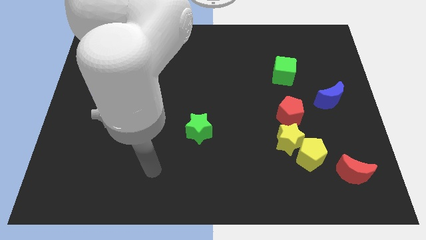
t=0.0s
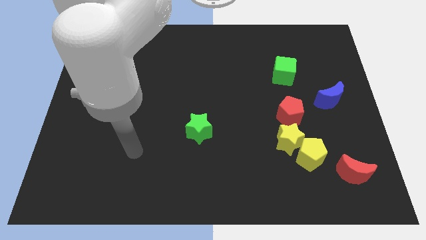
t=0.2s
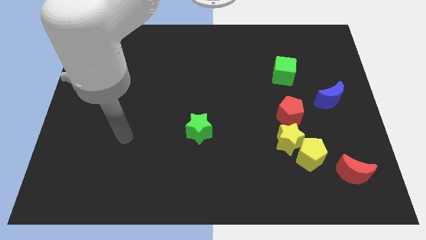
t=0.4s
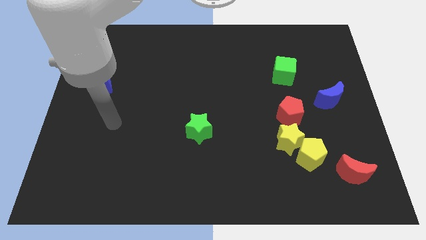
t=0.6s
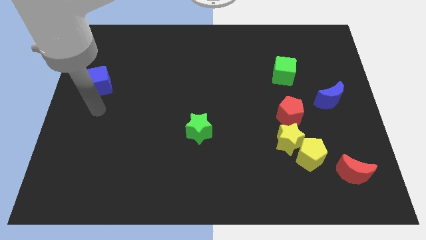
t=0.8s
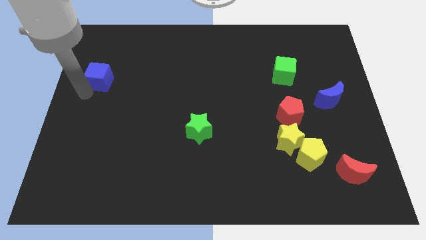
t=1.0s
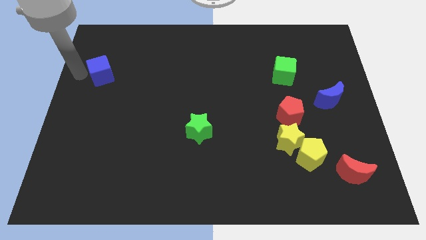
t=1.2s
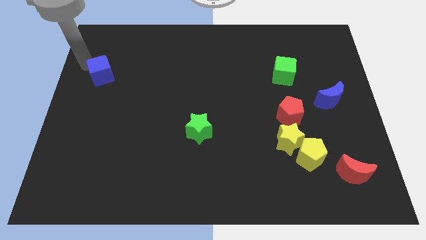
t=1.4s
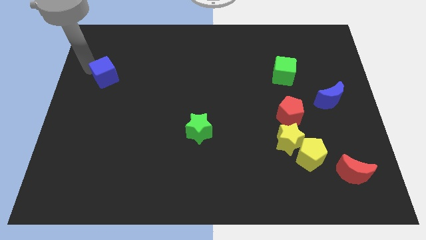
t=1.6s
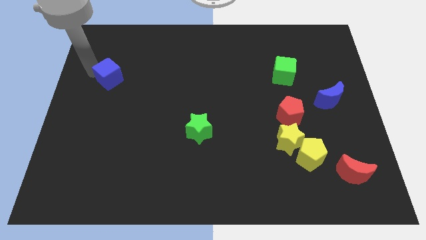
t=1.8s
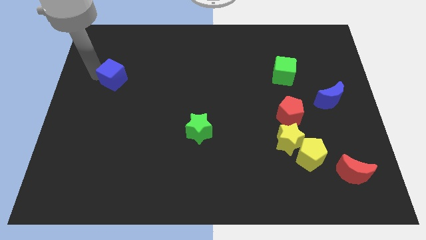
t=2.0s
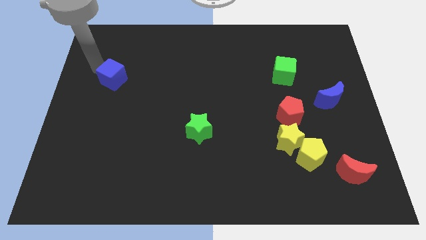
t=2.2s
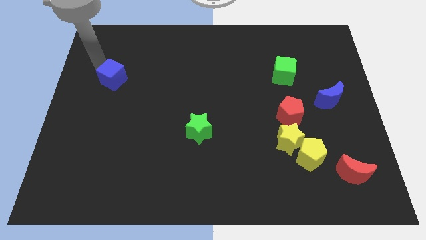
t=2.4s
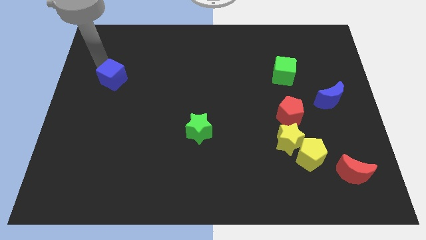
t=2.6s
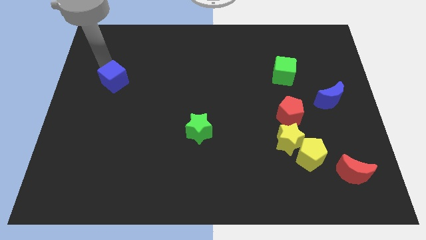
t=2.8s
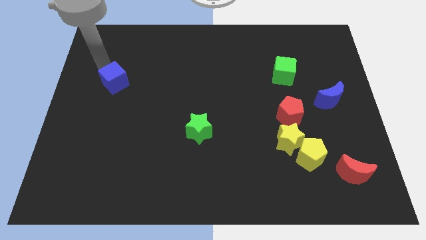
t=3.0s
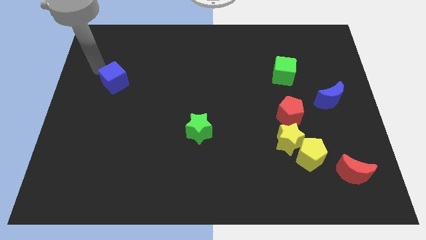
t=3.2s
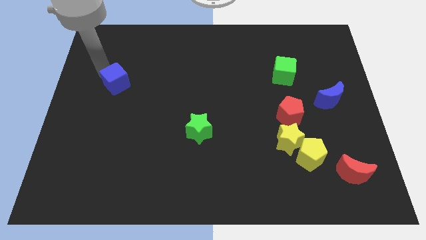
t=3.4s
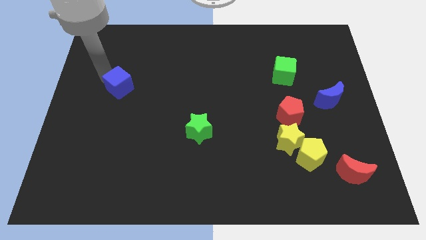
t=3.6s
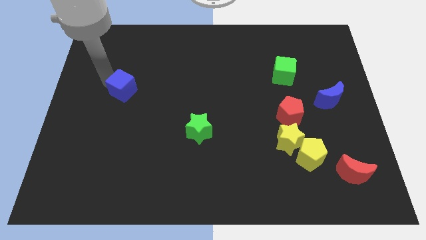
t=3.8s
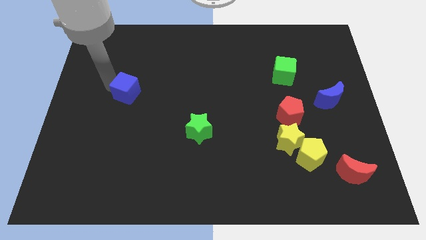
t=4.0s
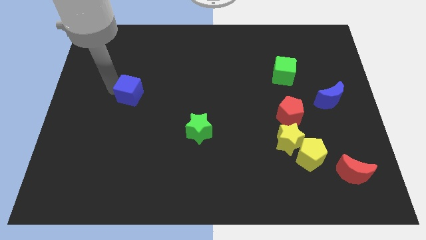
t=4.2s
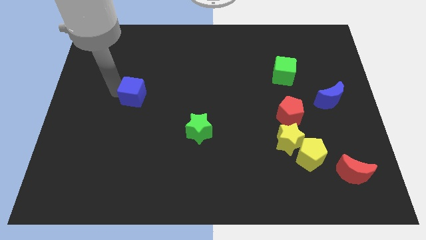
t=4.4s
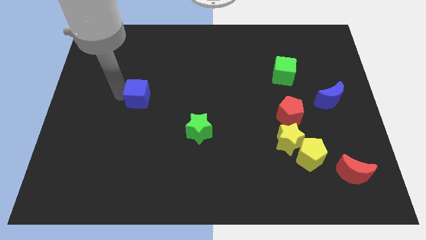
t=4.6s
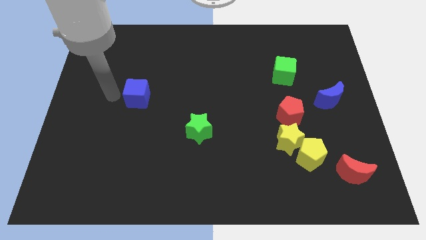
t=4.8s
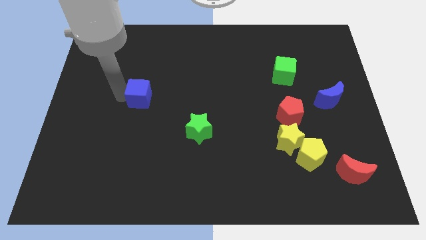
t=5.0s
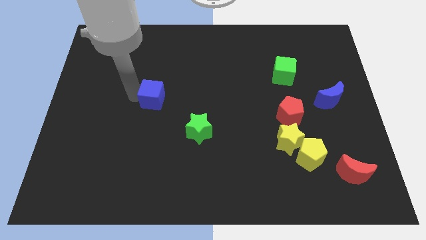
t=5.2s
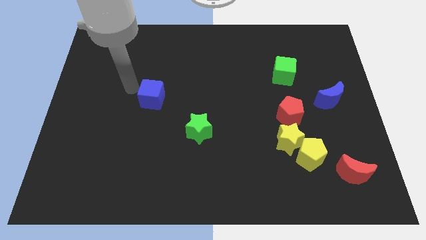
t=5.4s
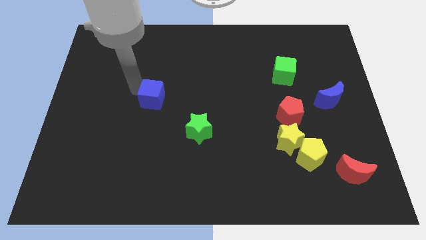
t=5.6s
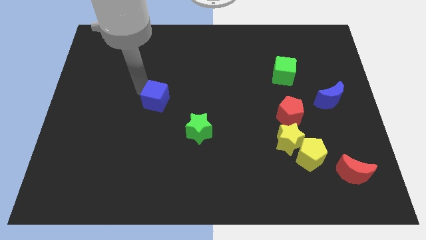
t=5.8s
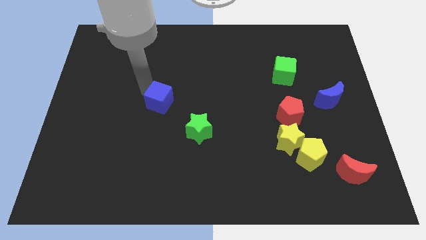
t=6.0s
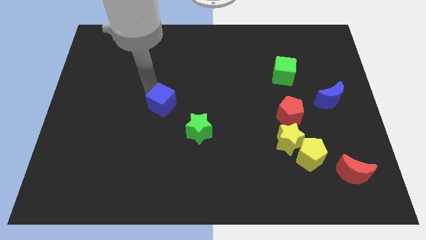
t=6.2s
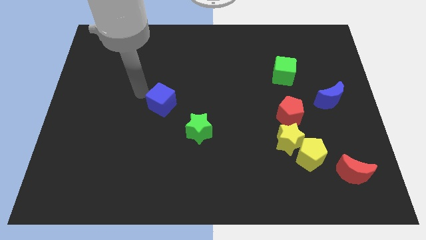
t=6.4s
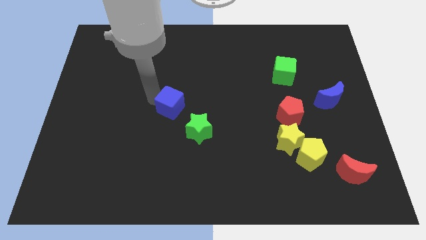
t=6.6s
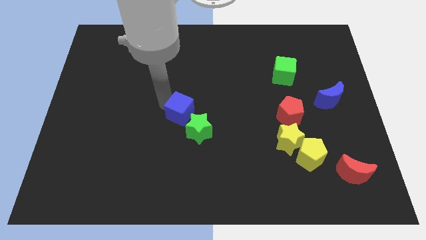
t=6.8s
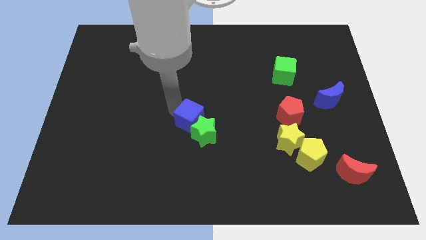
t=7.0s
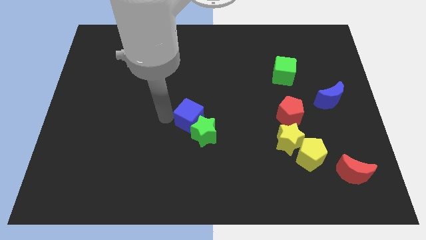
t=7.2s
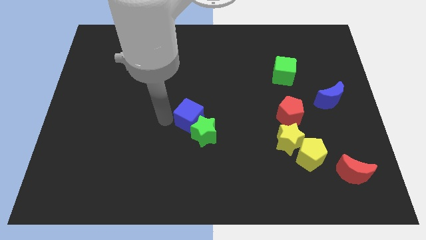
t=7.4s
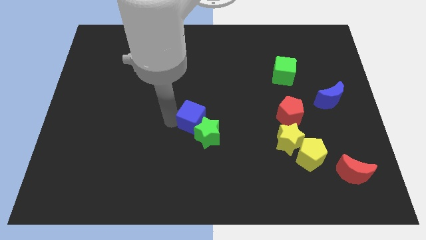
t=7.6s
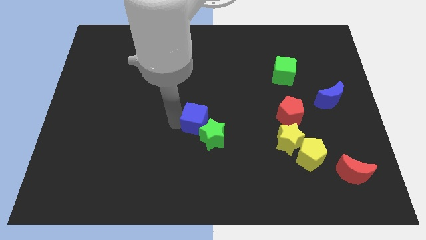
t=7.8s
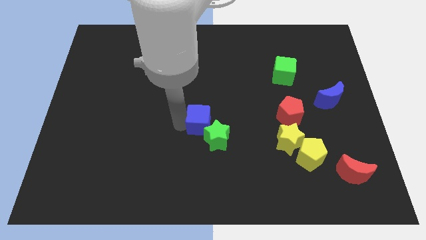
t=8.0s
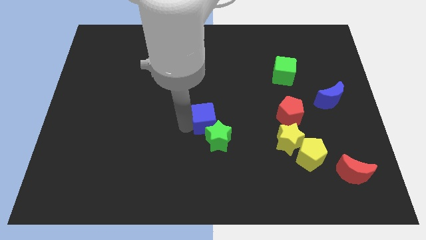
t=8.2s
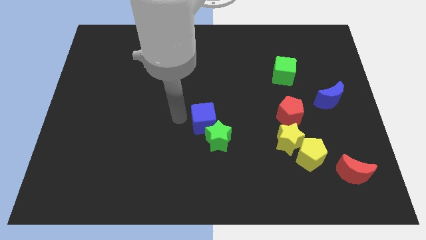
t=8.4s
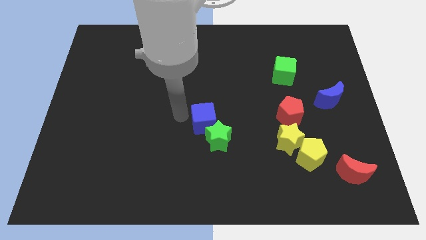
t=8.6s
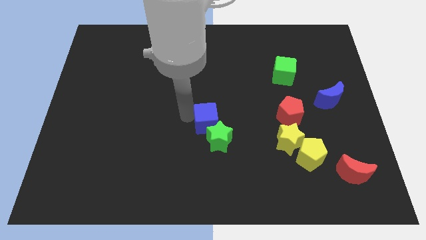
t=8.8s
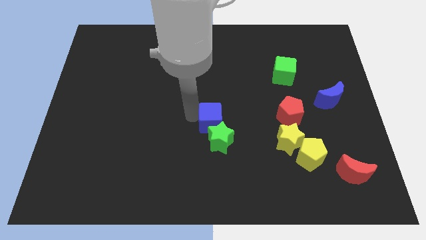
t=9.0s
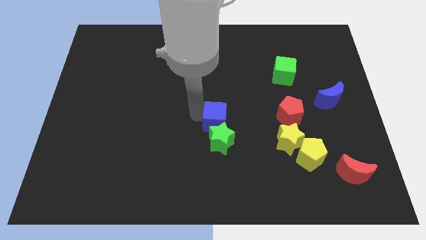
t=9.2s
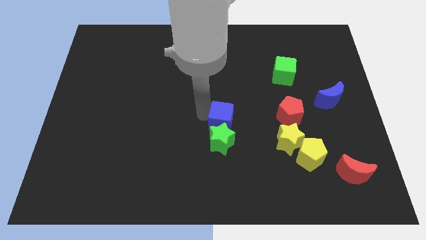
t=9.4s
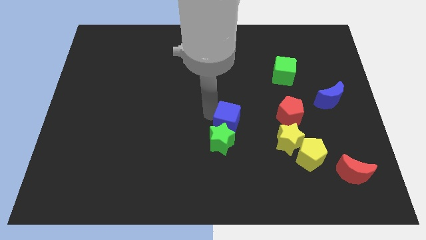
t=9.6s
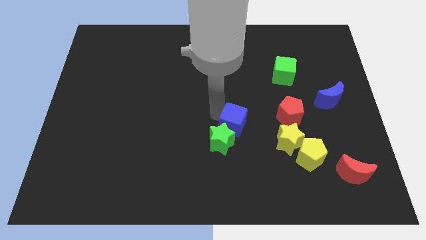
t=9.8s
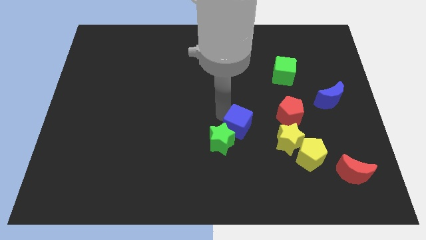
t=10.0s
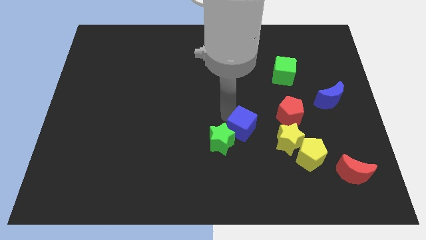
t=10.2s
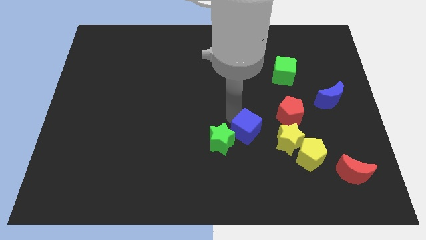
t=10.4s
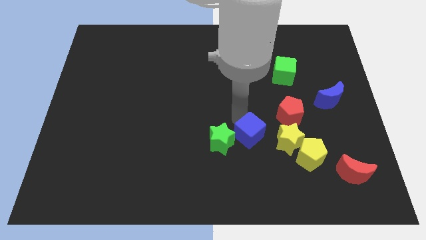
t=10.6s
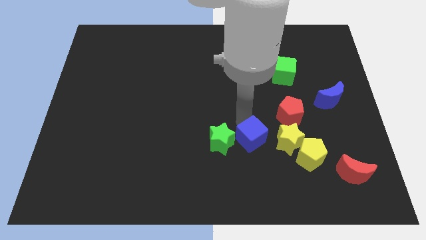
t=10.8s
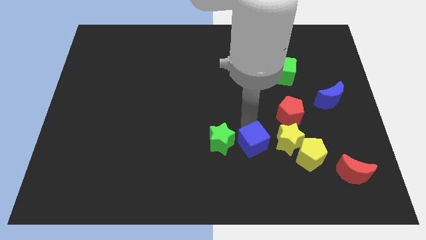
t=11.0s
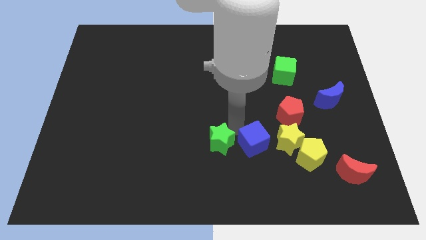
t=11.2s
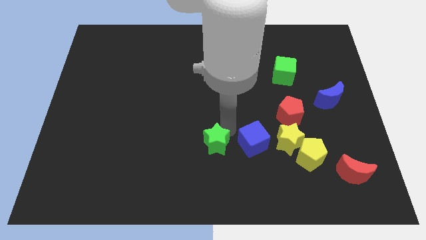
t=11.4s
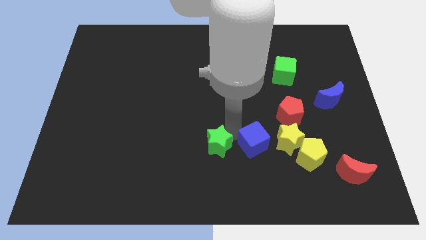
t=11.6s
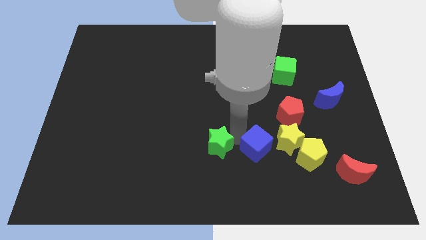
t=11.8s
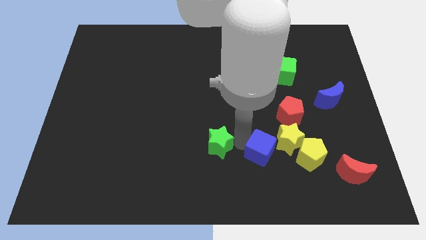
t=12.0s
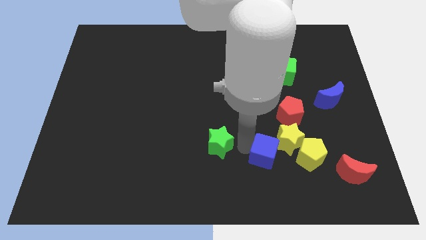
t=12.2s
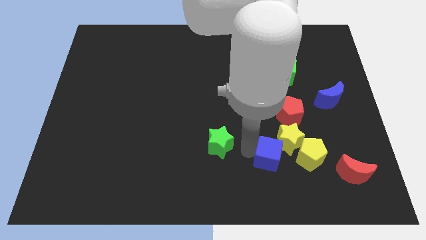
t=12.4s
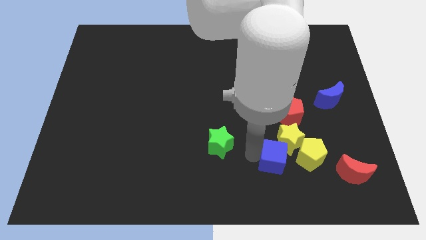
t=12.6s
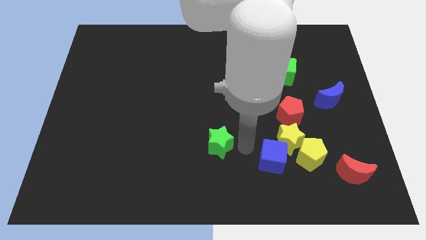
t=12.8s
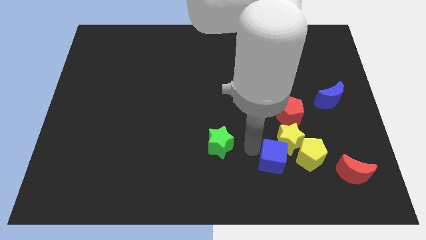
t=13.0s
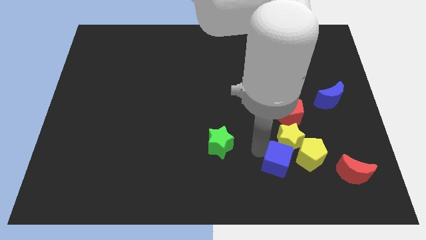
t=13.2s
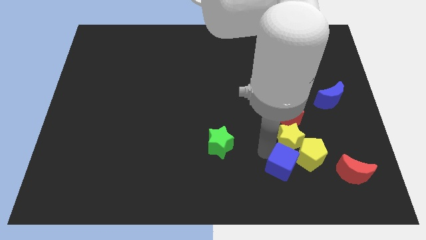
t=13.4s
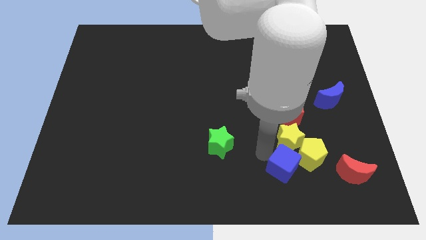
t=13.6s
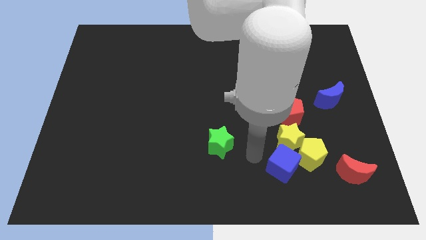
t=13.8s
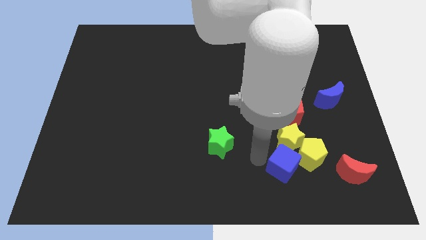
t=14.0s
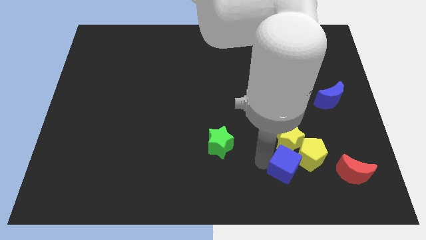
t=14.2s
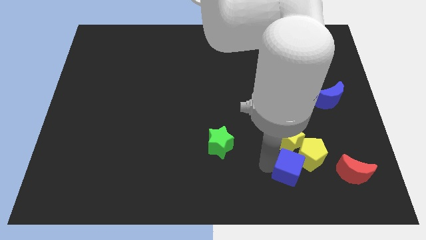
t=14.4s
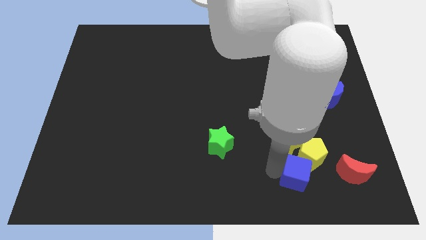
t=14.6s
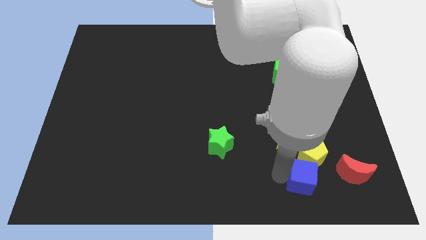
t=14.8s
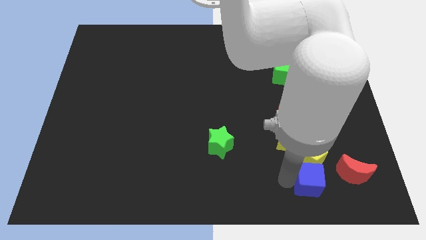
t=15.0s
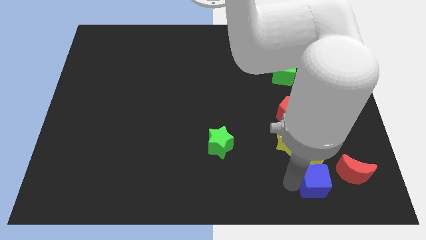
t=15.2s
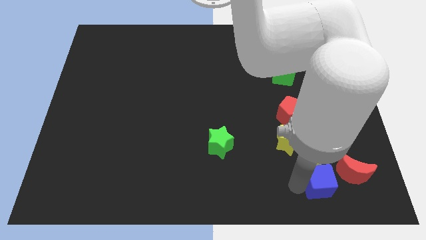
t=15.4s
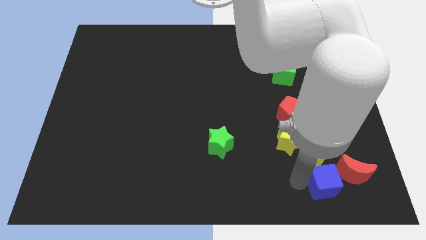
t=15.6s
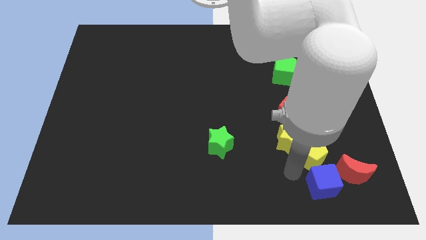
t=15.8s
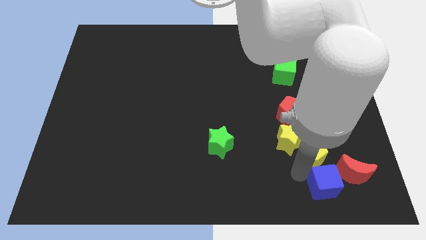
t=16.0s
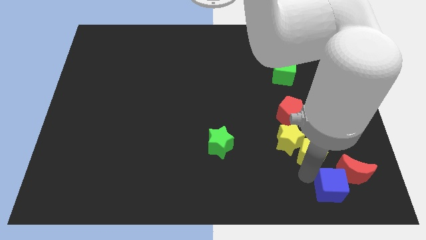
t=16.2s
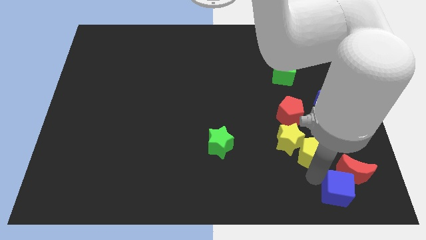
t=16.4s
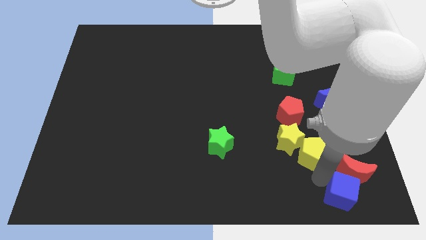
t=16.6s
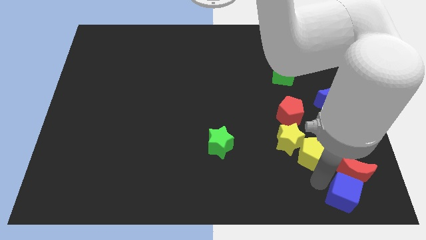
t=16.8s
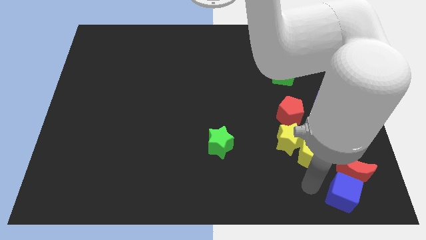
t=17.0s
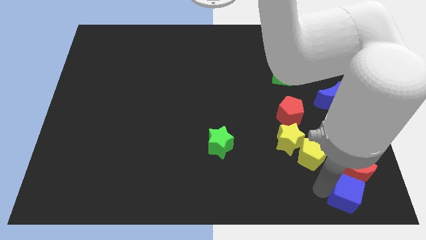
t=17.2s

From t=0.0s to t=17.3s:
push the blue cube to the bottom right of the board
